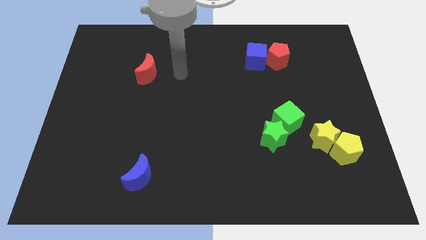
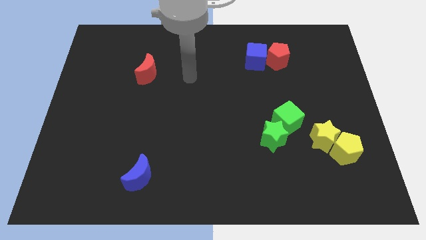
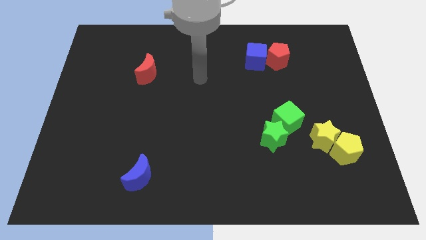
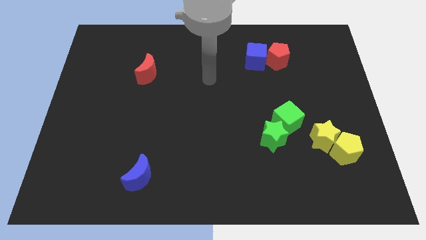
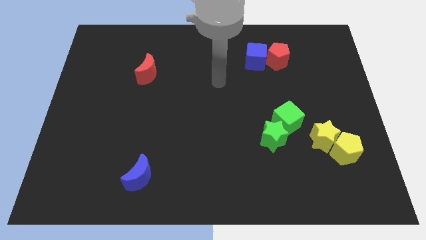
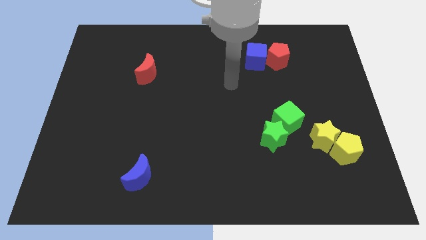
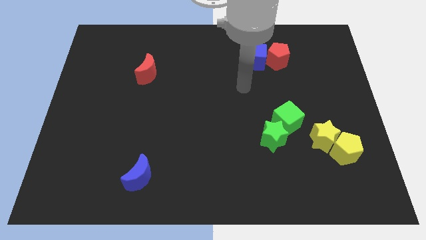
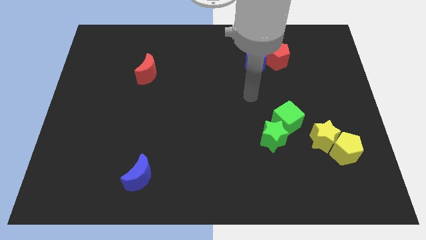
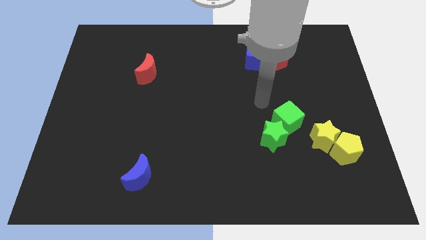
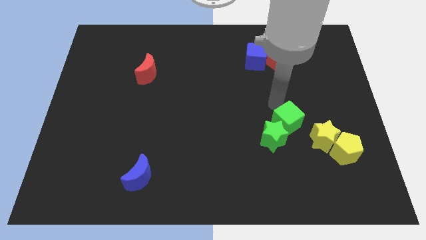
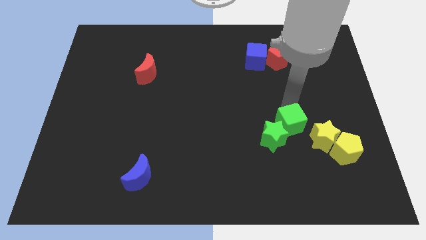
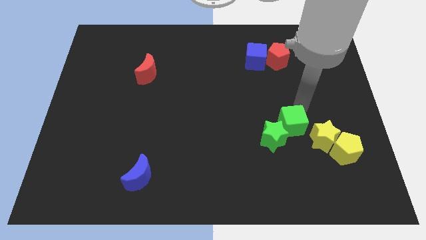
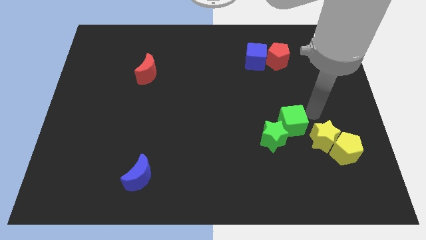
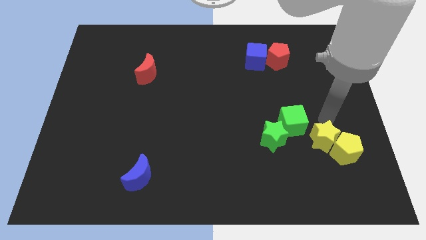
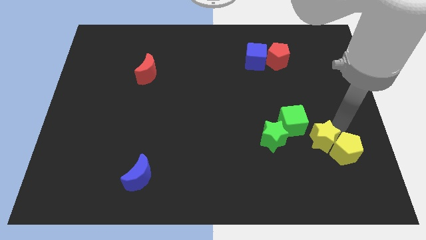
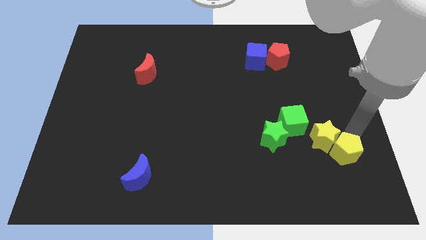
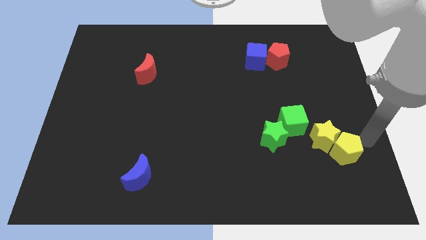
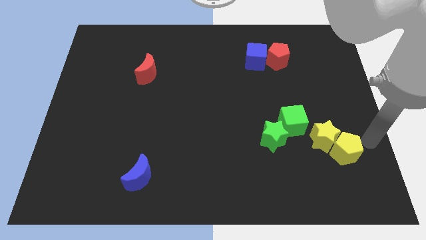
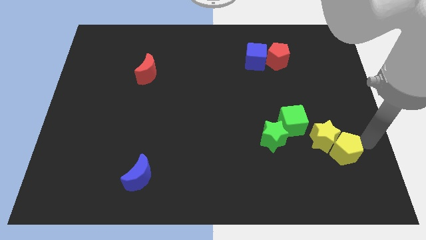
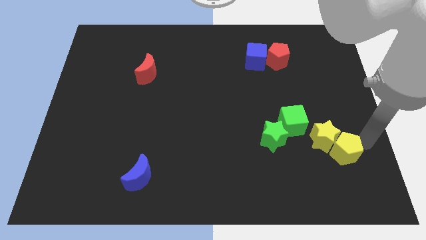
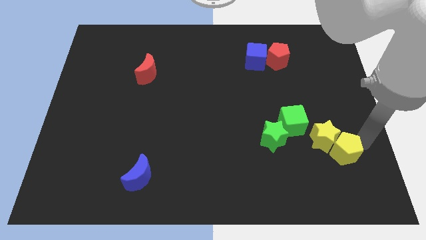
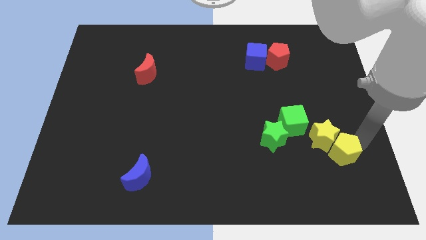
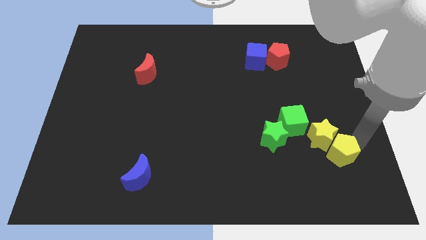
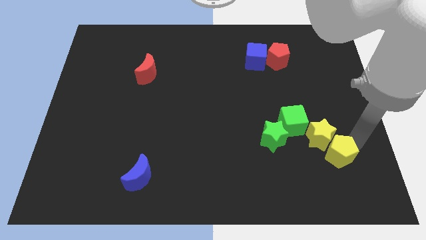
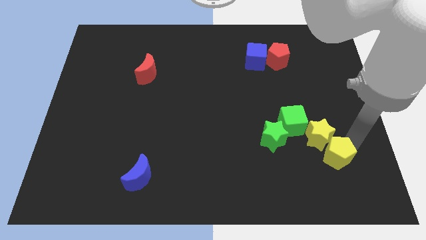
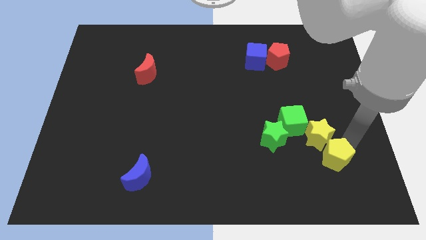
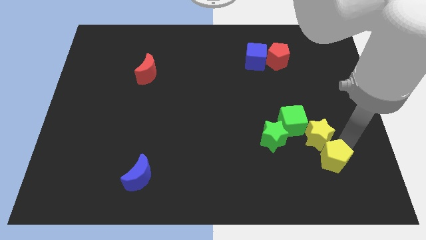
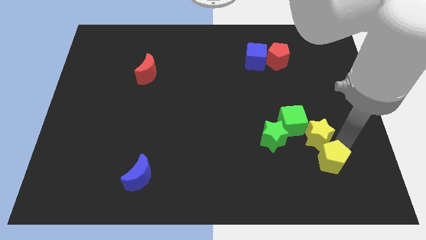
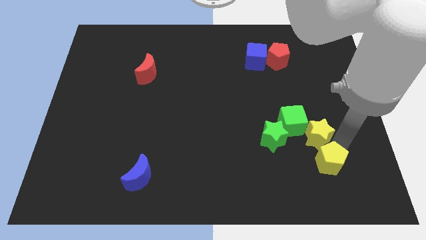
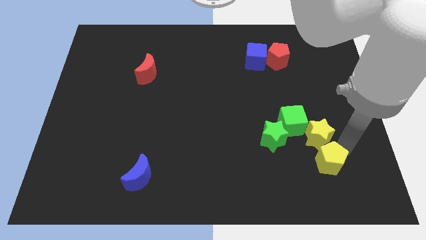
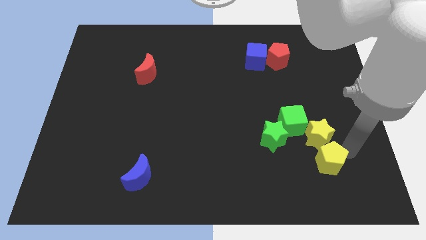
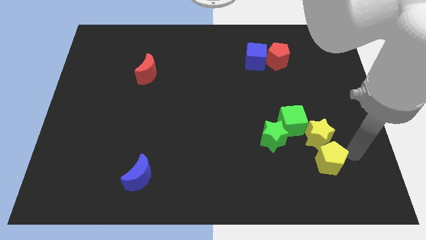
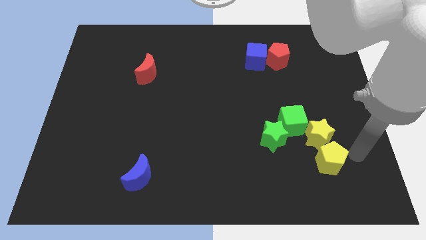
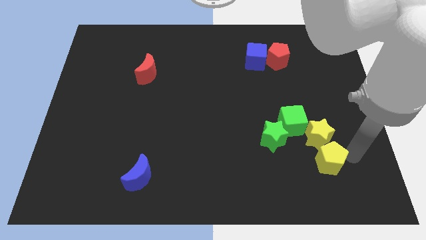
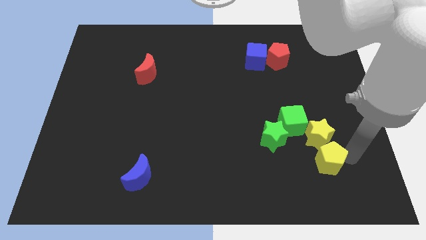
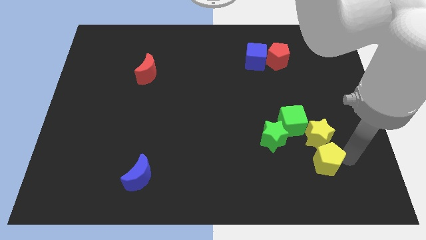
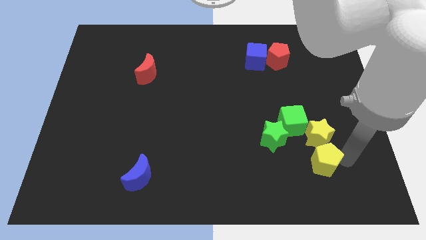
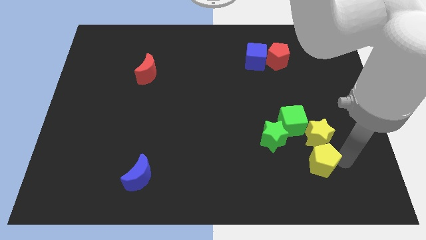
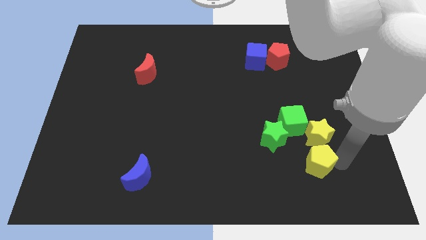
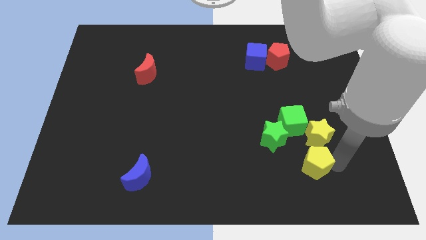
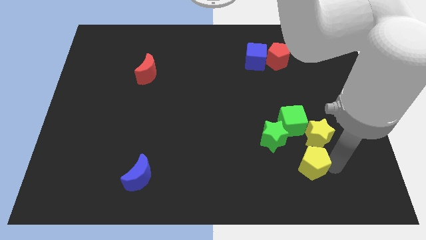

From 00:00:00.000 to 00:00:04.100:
slide the yellow pentagon left somewhat

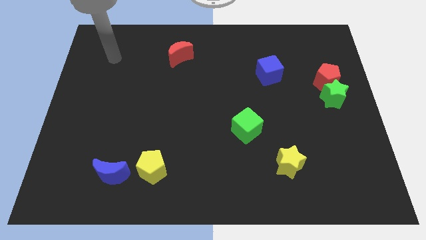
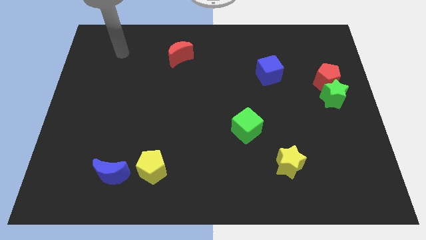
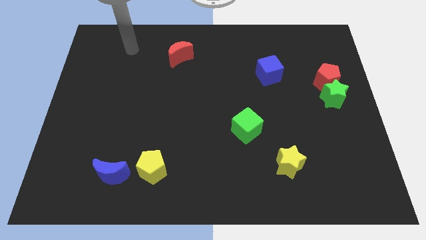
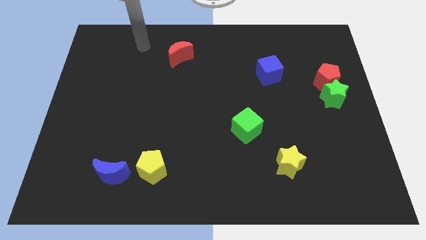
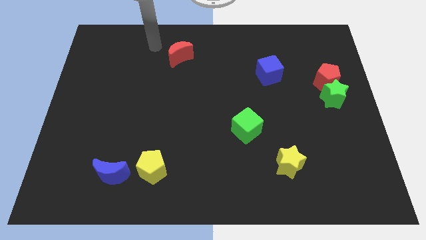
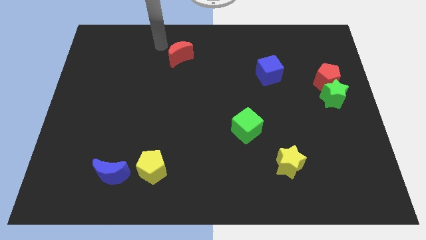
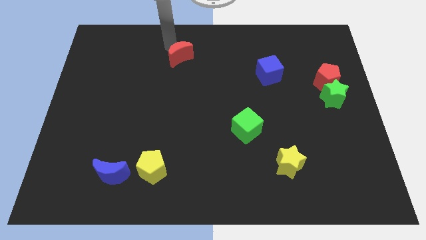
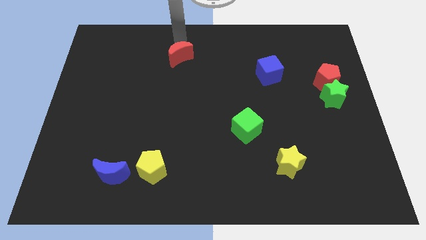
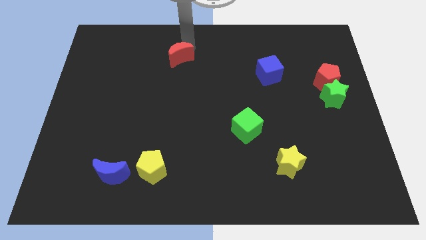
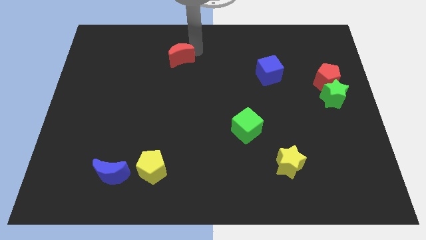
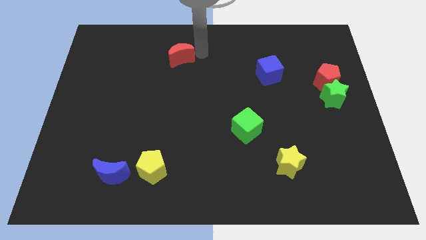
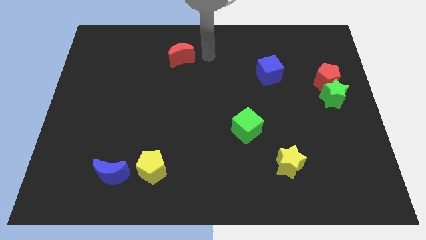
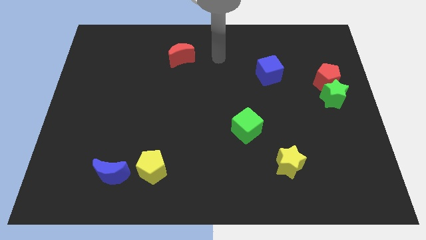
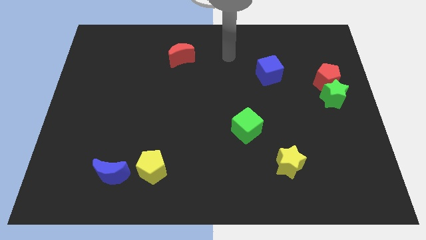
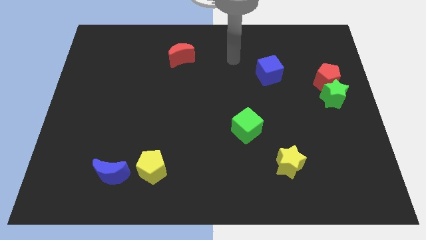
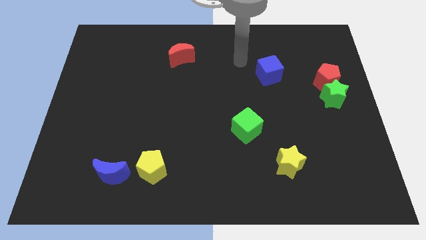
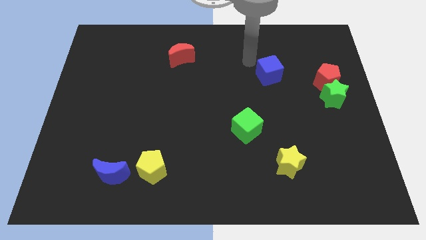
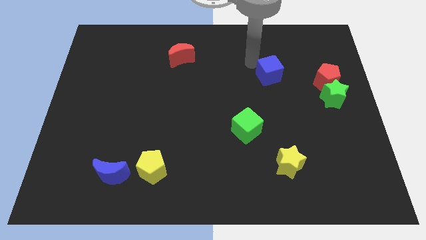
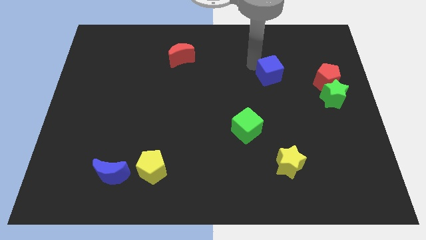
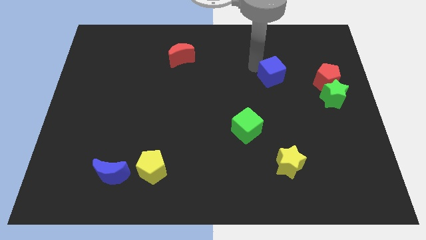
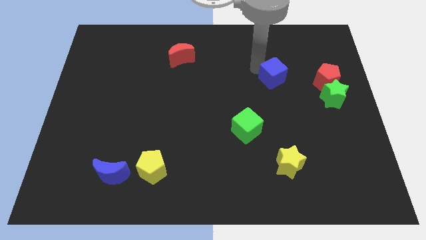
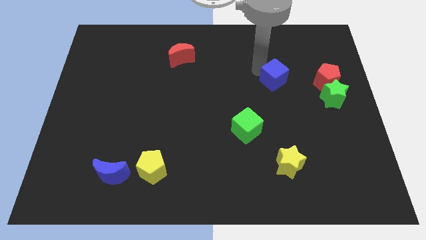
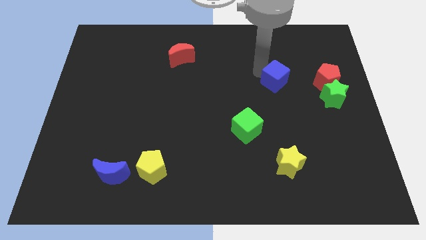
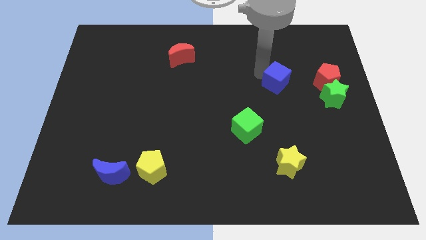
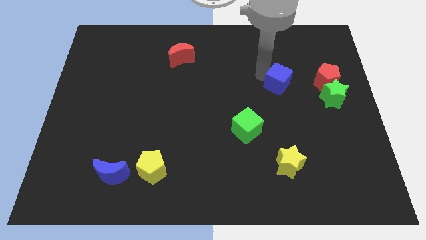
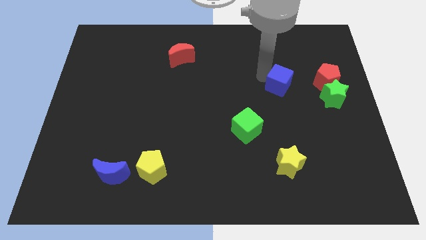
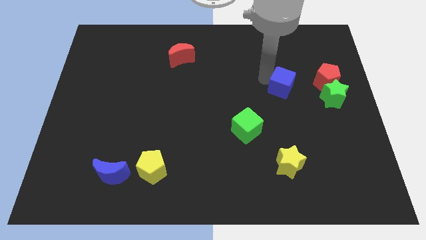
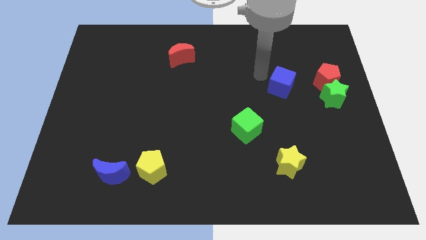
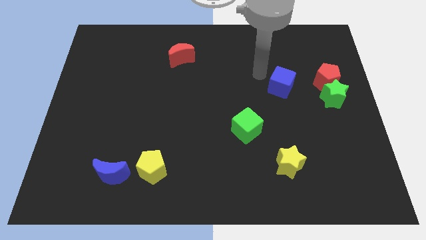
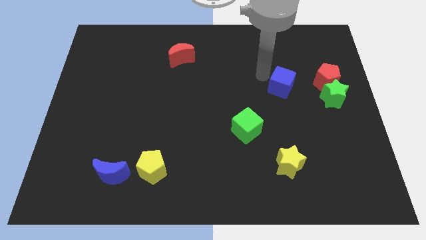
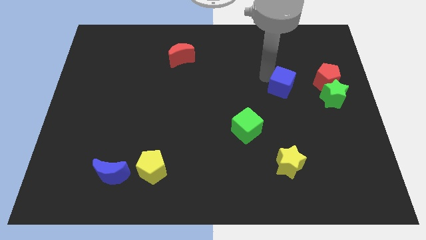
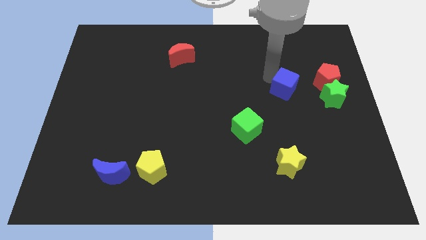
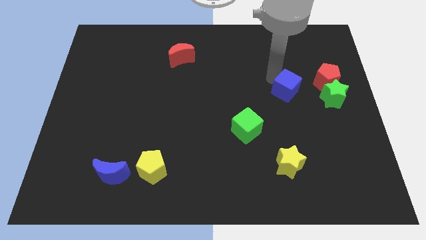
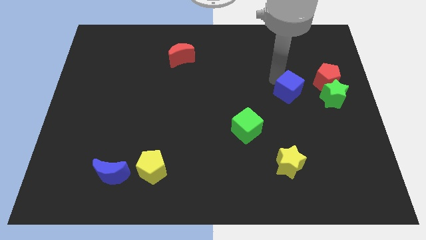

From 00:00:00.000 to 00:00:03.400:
slightly slide the blue cube downwards and to the right

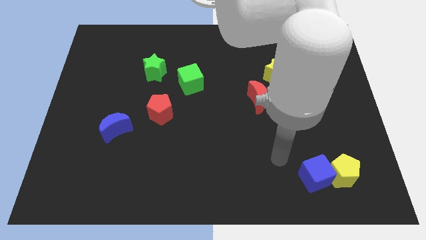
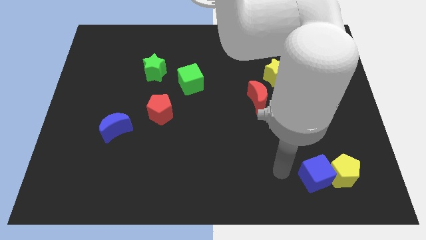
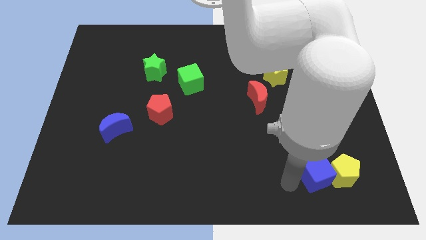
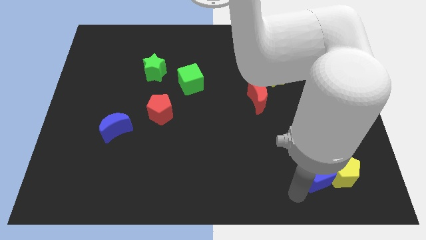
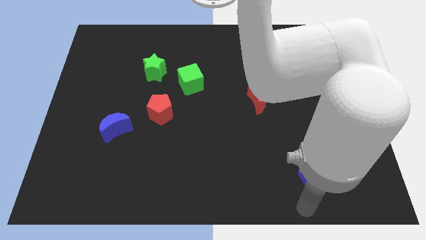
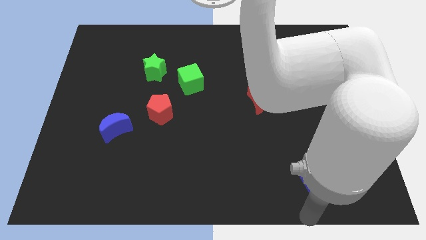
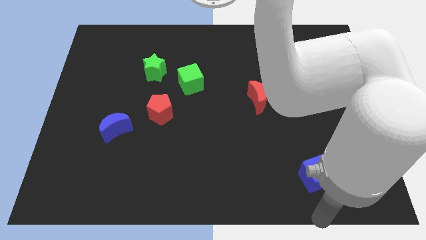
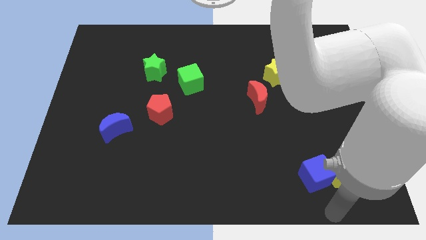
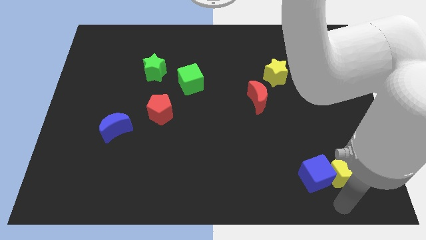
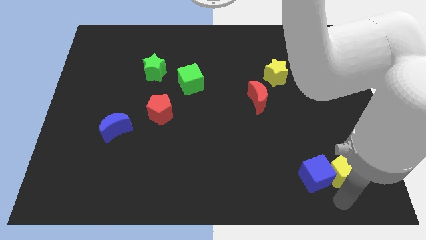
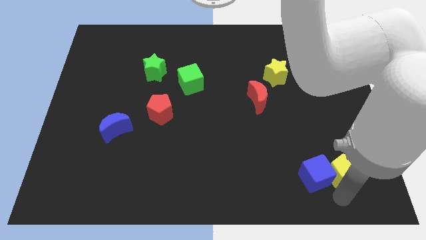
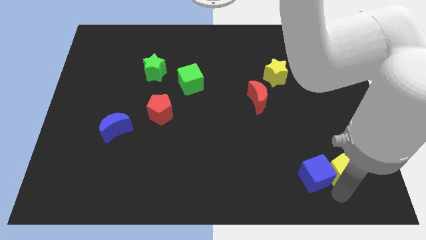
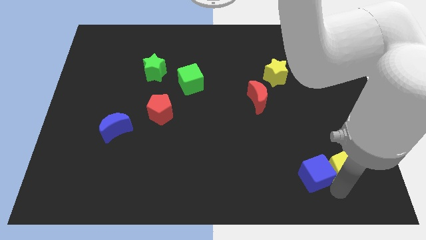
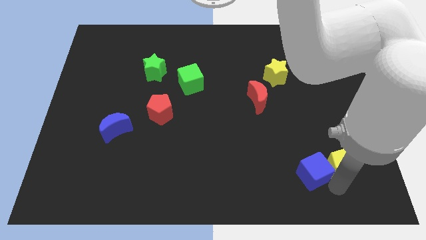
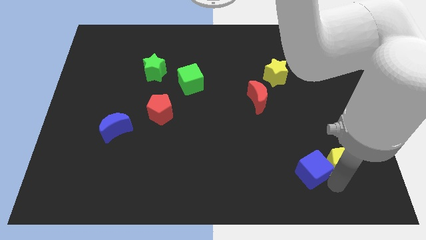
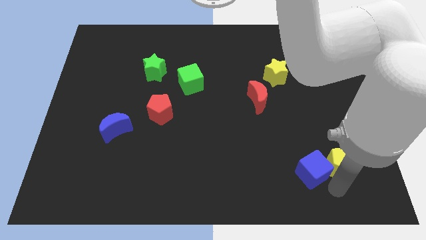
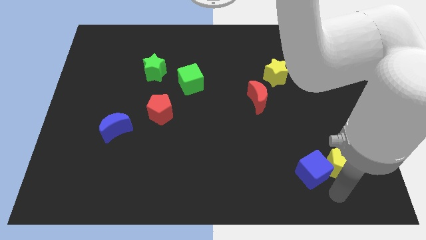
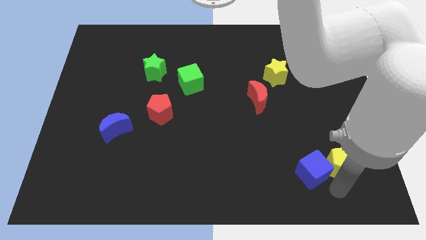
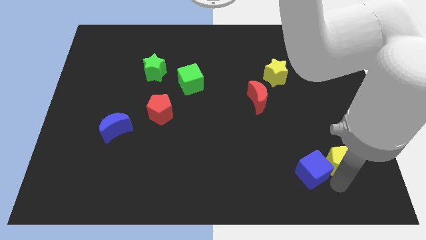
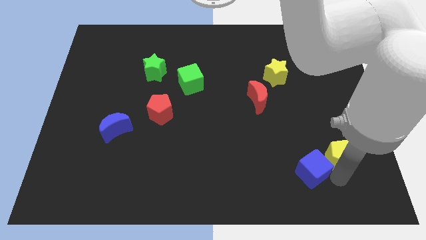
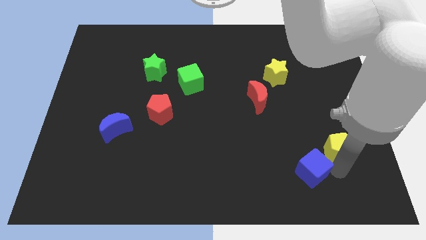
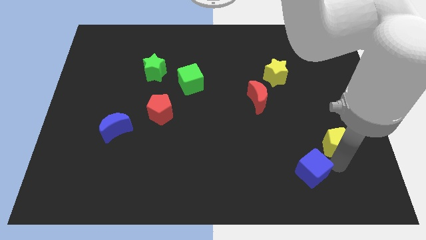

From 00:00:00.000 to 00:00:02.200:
slightly push the yellow pentagon up
